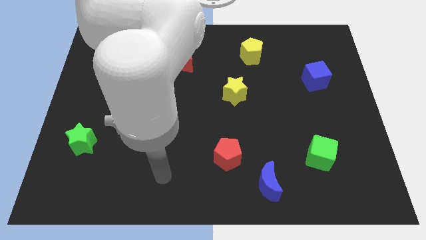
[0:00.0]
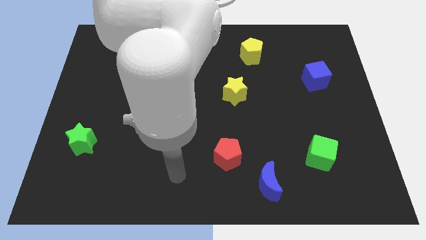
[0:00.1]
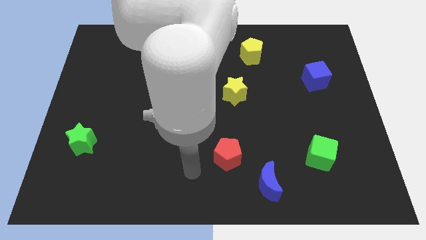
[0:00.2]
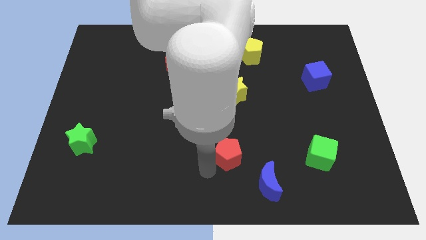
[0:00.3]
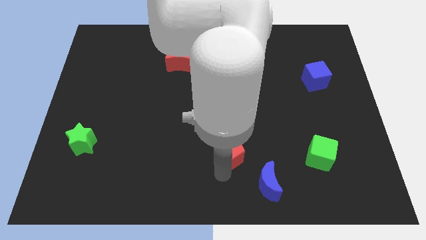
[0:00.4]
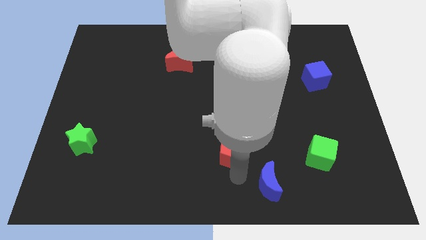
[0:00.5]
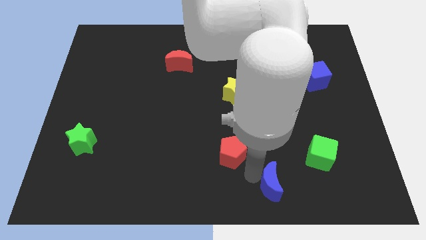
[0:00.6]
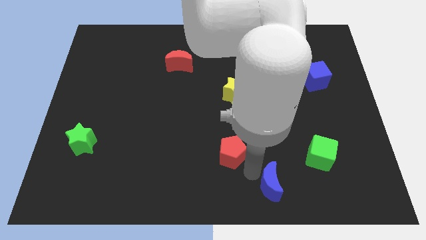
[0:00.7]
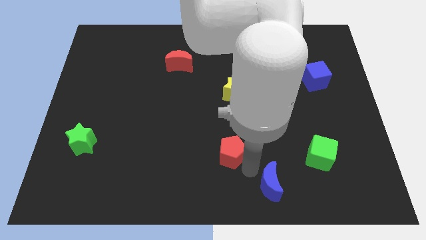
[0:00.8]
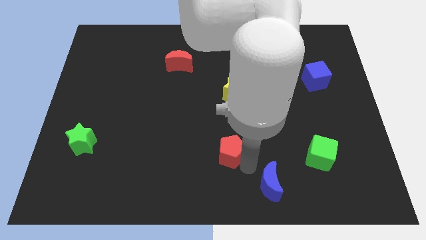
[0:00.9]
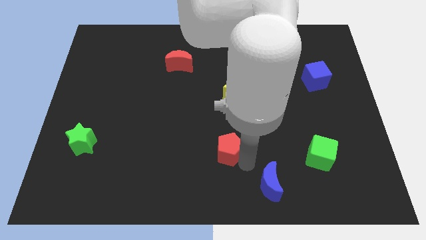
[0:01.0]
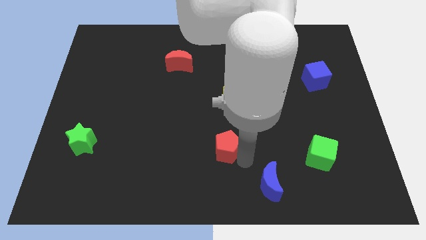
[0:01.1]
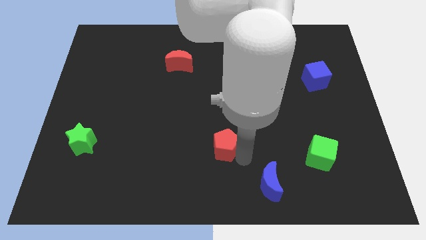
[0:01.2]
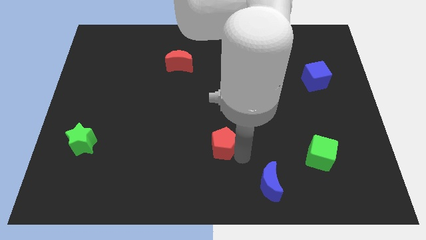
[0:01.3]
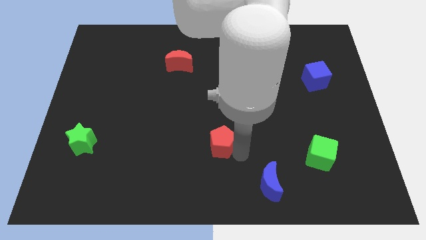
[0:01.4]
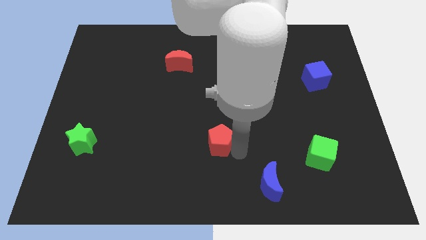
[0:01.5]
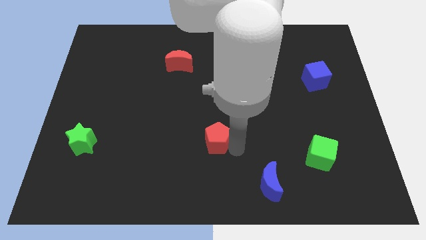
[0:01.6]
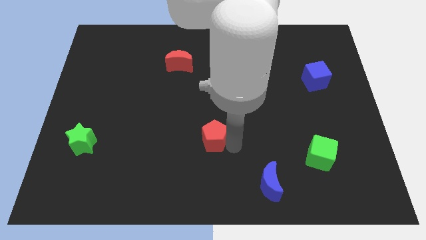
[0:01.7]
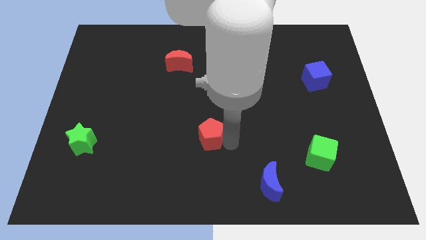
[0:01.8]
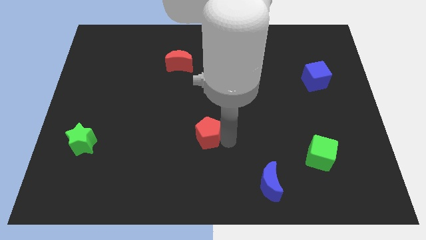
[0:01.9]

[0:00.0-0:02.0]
slightly move the red pentagon upwards and then to the left

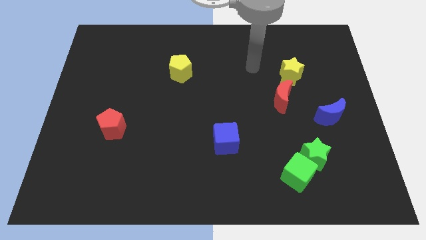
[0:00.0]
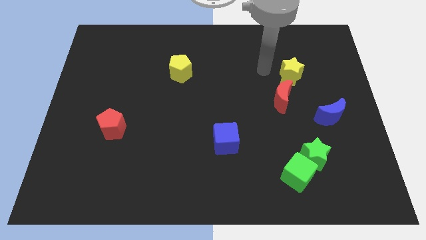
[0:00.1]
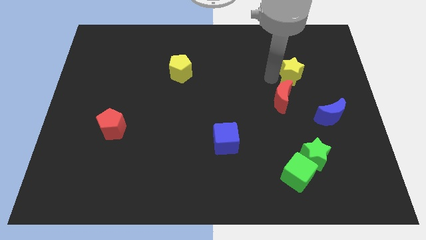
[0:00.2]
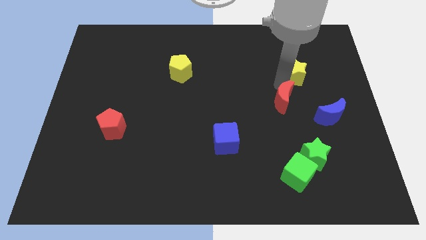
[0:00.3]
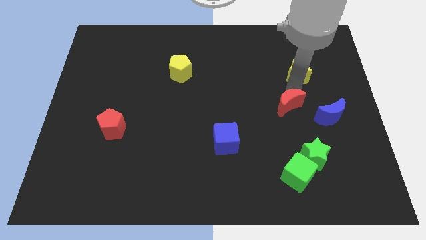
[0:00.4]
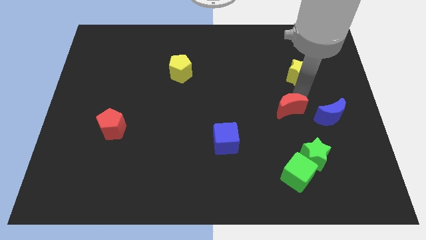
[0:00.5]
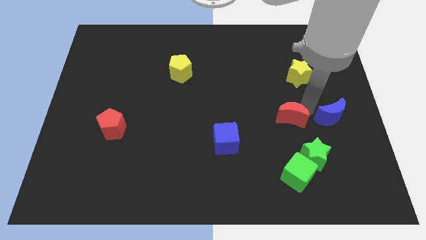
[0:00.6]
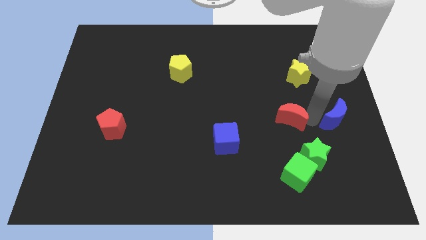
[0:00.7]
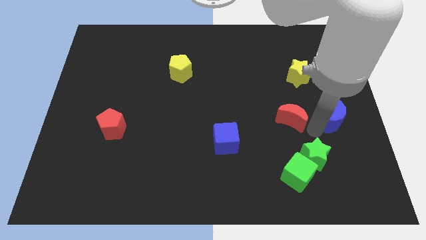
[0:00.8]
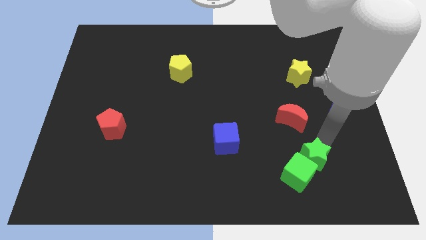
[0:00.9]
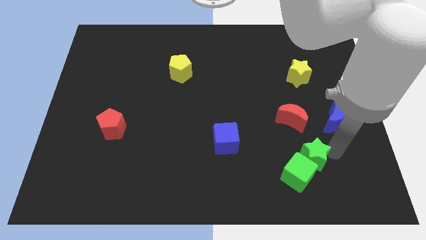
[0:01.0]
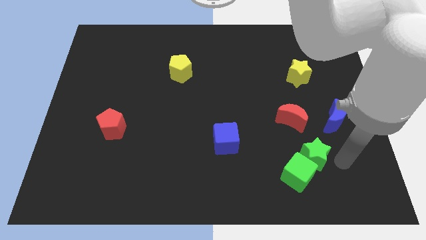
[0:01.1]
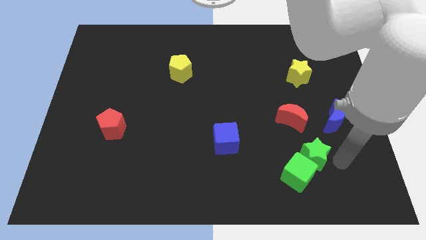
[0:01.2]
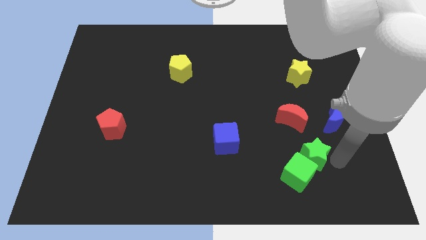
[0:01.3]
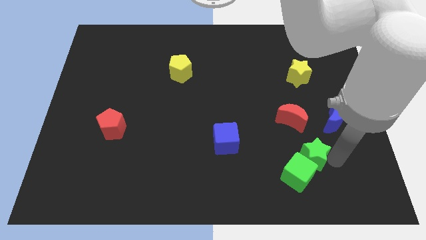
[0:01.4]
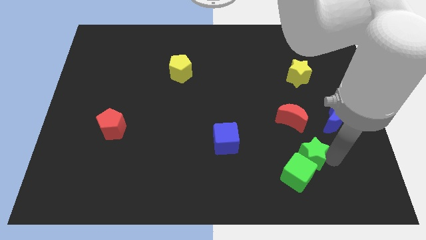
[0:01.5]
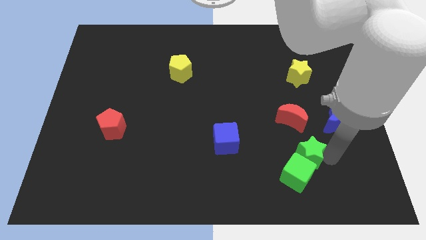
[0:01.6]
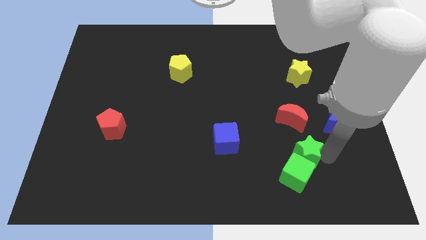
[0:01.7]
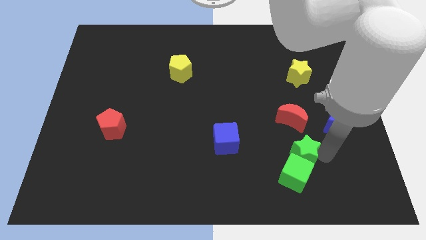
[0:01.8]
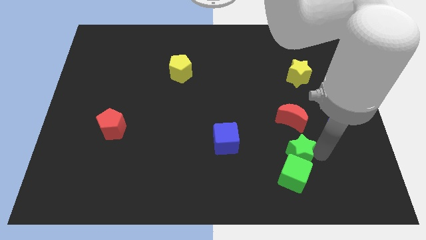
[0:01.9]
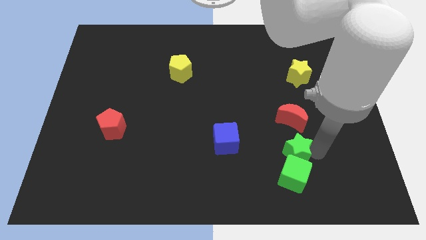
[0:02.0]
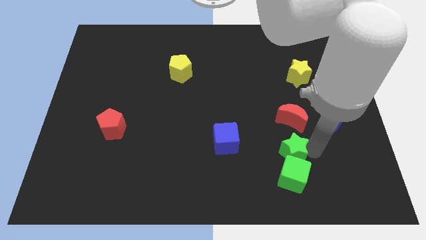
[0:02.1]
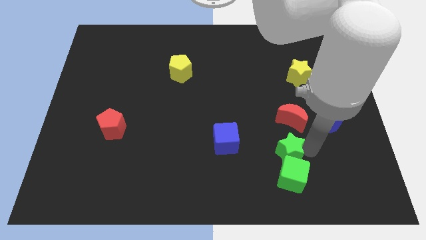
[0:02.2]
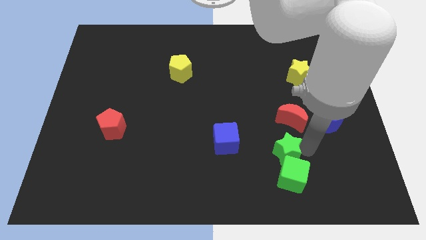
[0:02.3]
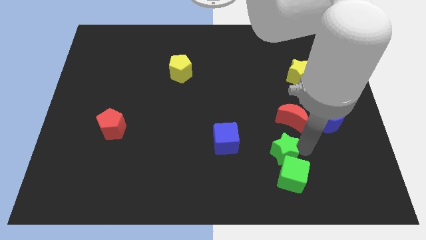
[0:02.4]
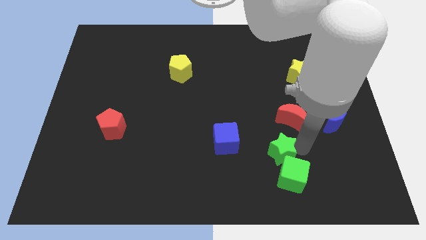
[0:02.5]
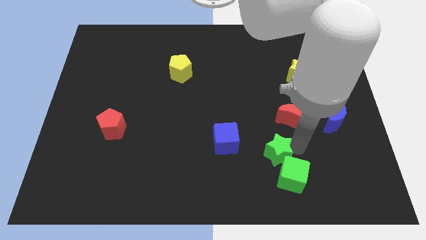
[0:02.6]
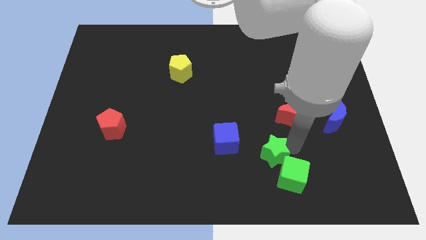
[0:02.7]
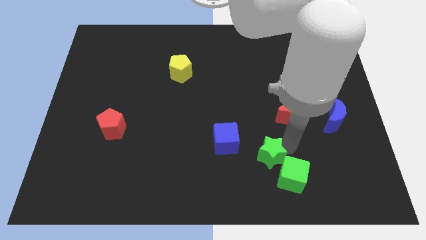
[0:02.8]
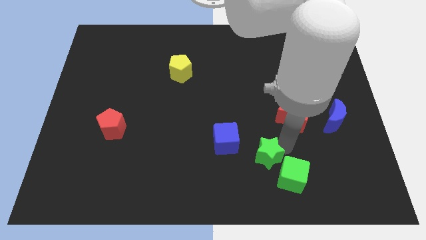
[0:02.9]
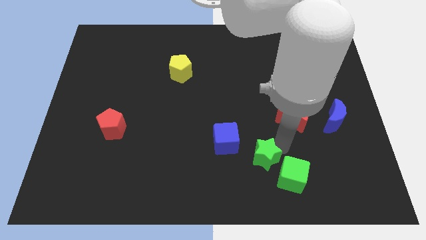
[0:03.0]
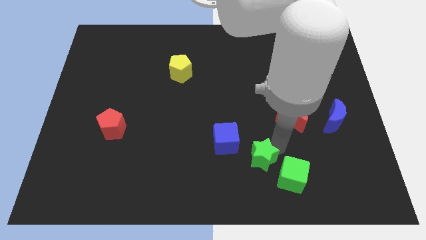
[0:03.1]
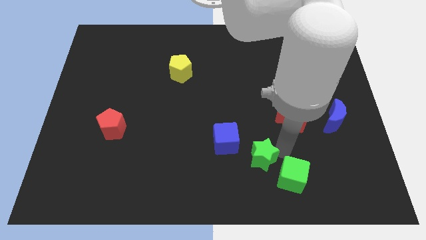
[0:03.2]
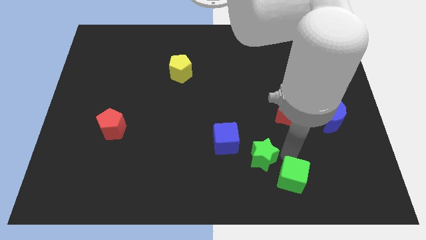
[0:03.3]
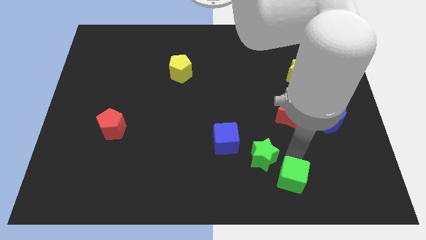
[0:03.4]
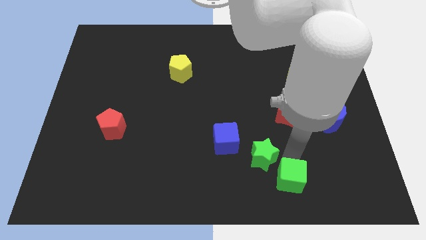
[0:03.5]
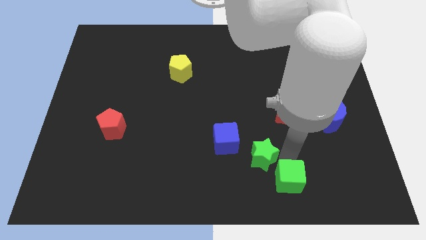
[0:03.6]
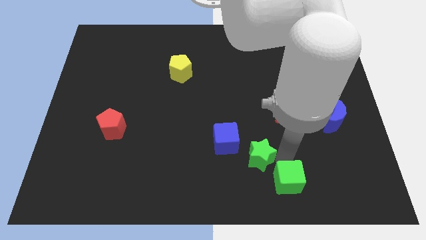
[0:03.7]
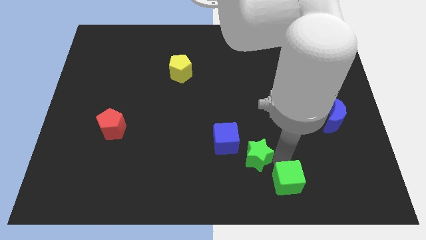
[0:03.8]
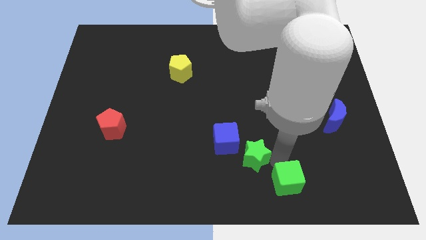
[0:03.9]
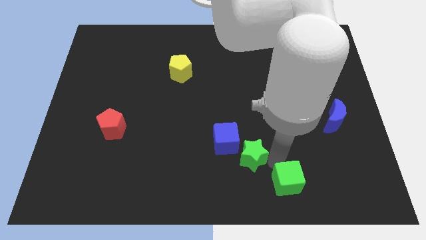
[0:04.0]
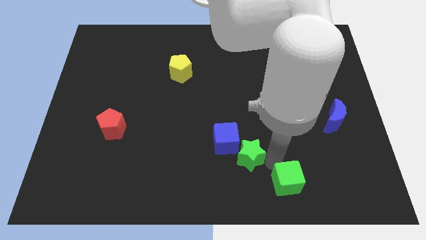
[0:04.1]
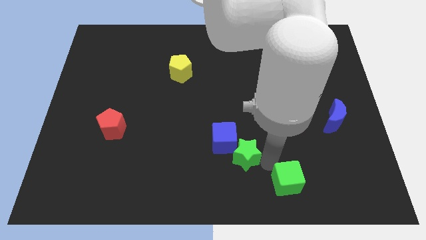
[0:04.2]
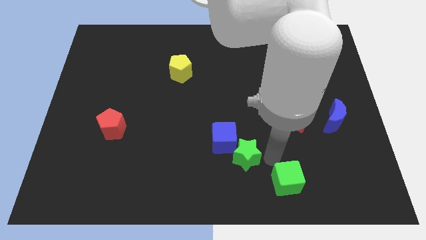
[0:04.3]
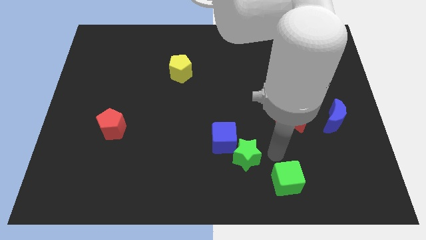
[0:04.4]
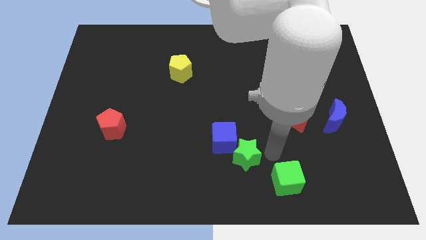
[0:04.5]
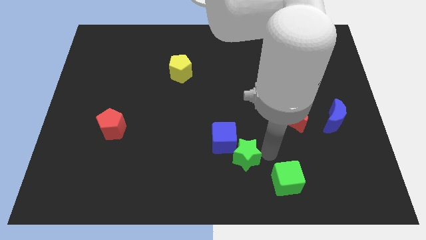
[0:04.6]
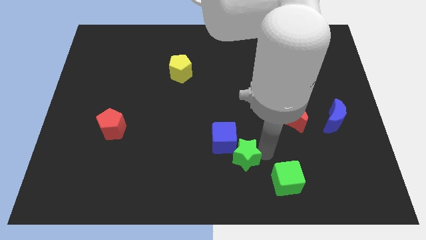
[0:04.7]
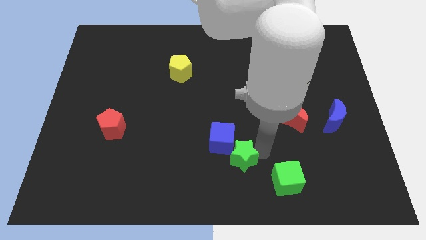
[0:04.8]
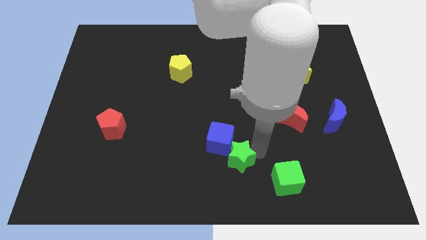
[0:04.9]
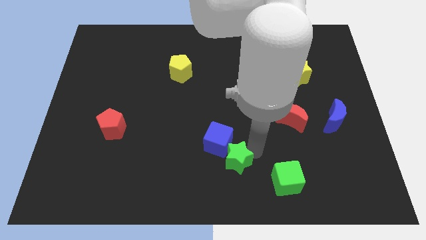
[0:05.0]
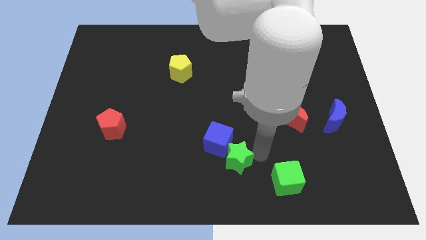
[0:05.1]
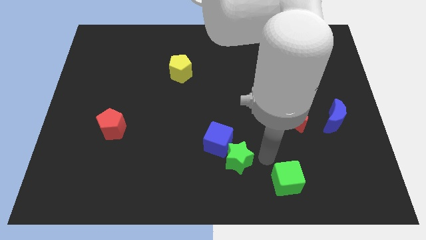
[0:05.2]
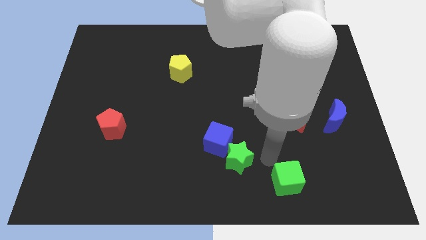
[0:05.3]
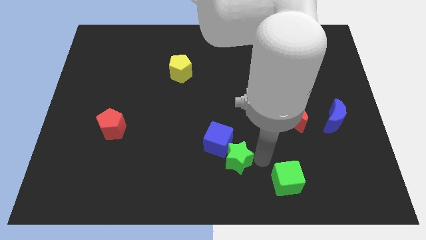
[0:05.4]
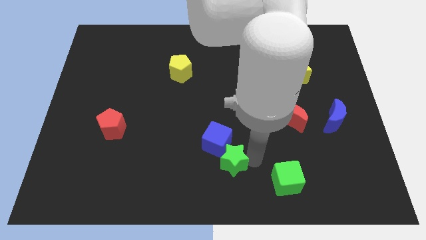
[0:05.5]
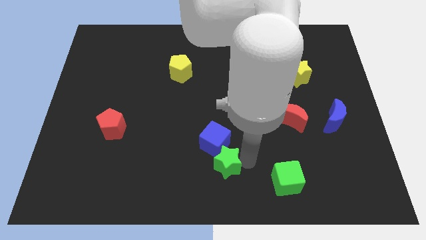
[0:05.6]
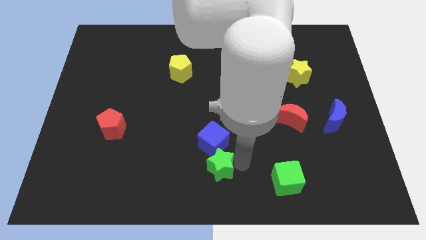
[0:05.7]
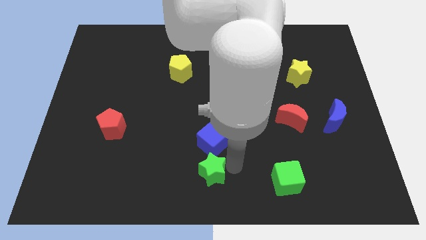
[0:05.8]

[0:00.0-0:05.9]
push the green star to the left

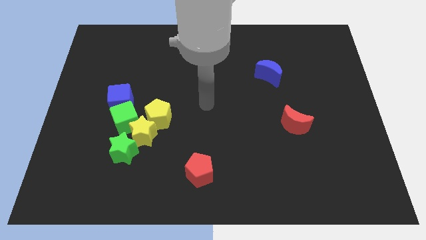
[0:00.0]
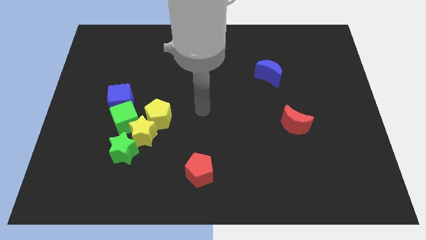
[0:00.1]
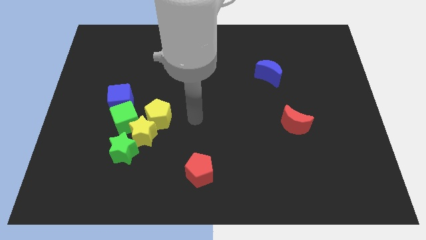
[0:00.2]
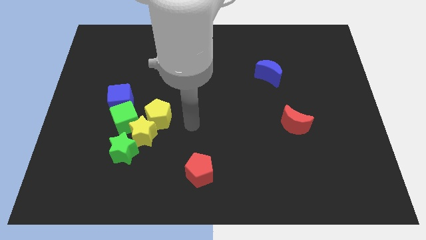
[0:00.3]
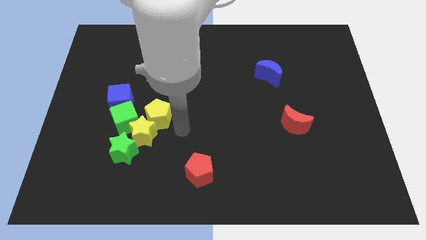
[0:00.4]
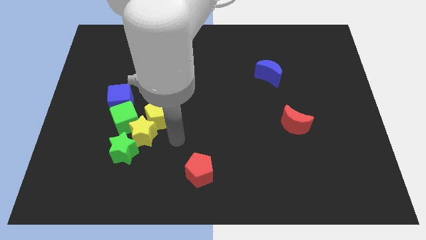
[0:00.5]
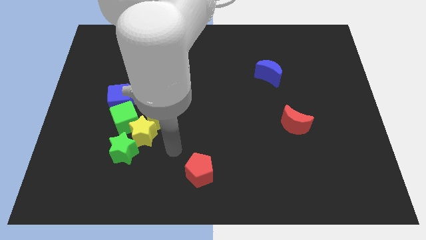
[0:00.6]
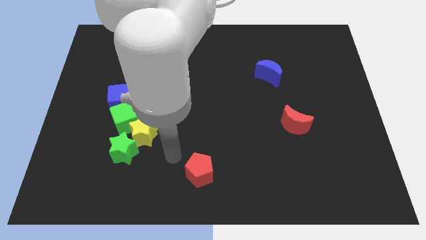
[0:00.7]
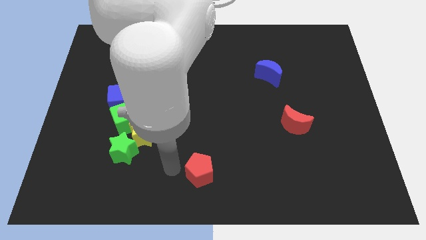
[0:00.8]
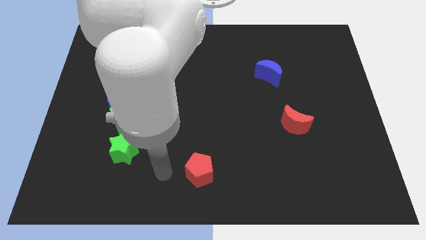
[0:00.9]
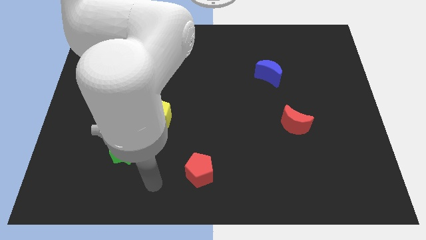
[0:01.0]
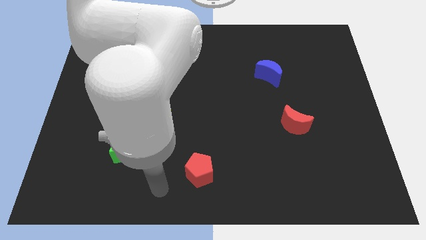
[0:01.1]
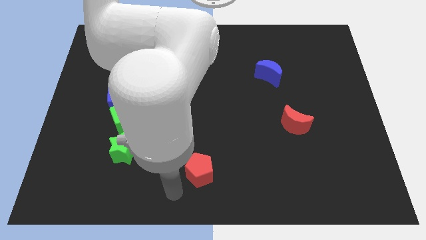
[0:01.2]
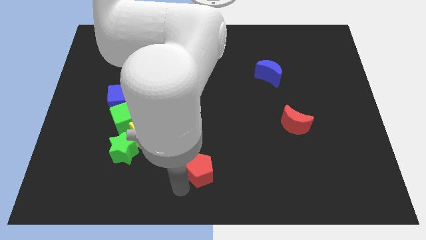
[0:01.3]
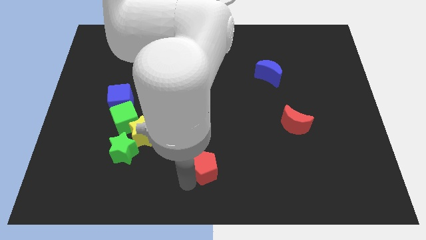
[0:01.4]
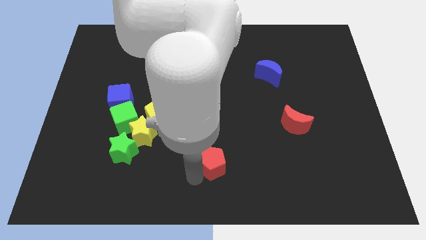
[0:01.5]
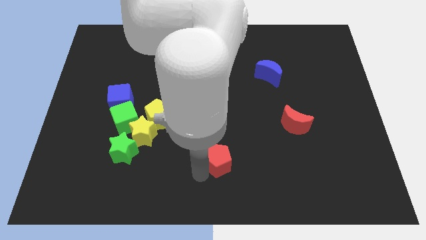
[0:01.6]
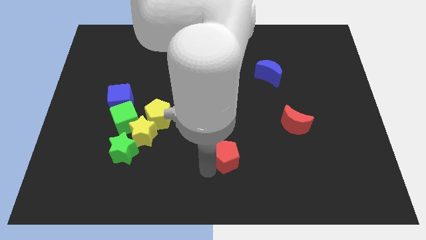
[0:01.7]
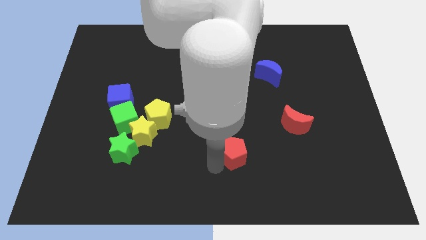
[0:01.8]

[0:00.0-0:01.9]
slightly move the red pentagon diagonally up and to the right
